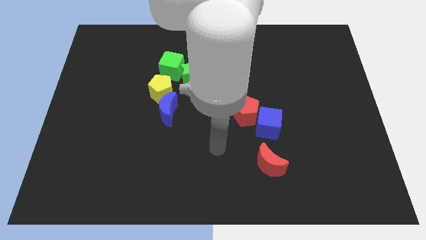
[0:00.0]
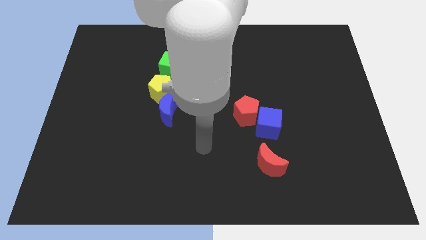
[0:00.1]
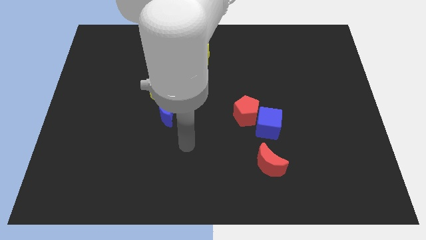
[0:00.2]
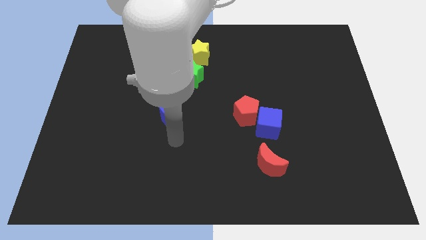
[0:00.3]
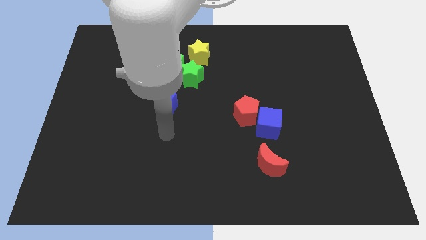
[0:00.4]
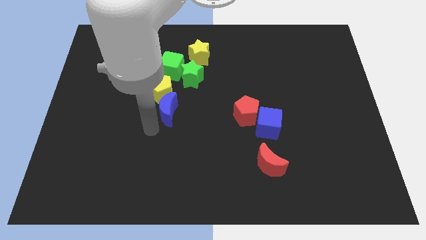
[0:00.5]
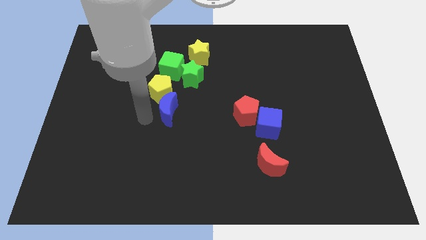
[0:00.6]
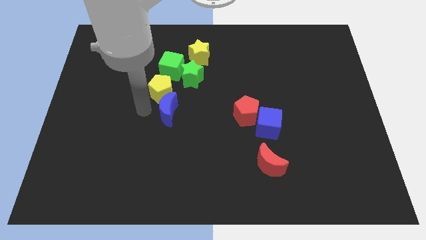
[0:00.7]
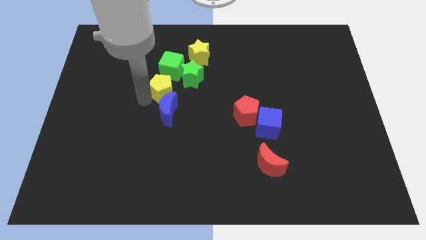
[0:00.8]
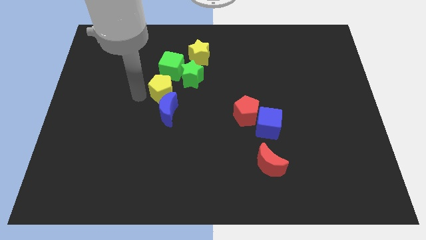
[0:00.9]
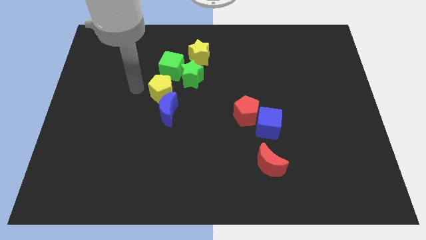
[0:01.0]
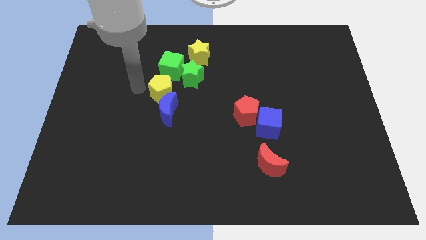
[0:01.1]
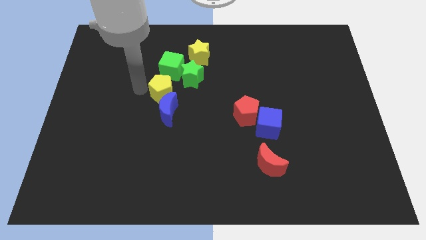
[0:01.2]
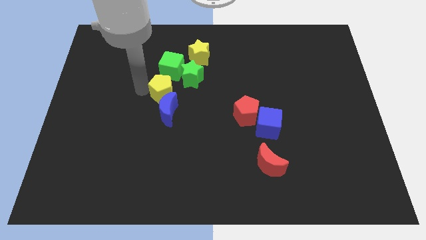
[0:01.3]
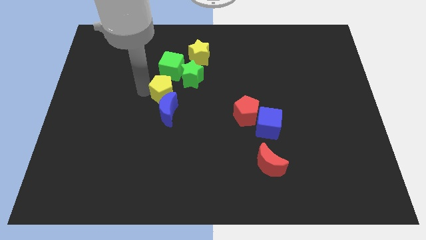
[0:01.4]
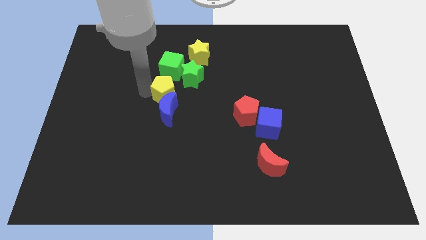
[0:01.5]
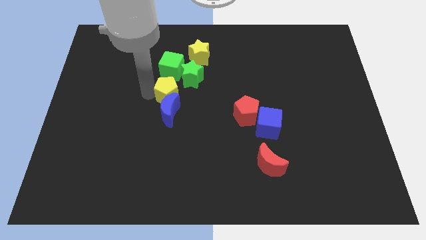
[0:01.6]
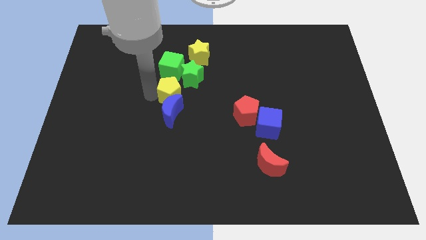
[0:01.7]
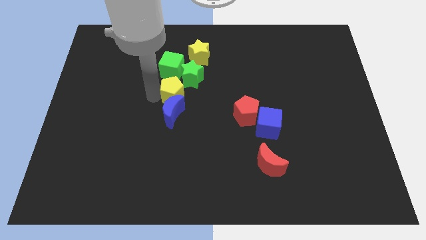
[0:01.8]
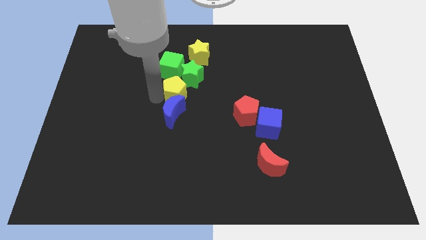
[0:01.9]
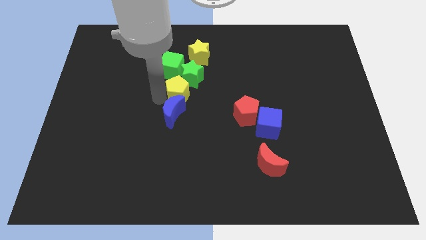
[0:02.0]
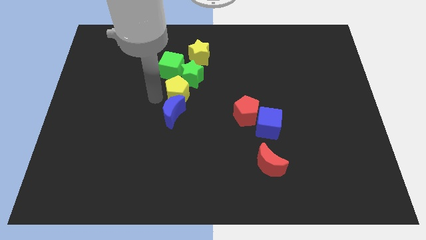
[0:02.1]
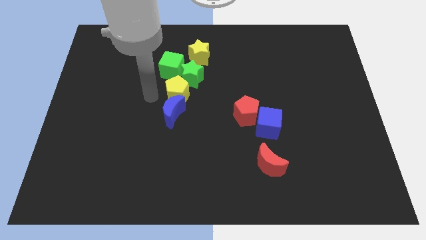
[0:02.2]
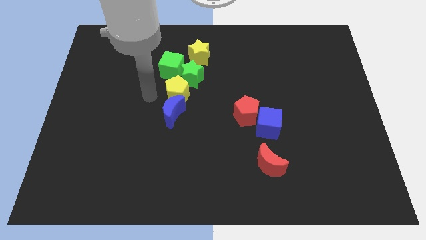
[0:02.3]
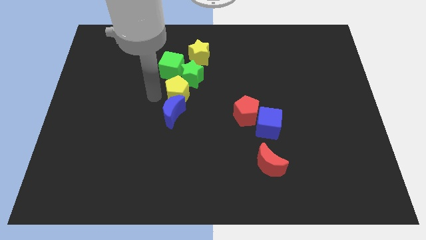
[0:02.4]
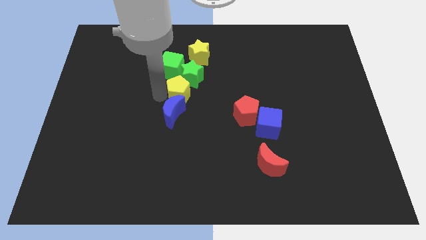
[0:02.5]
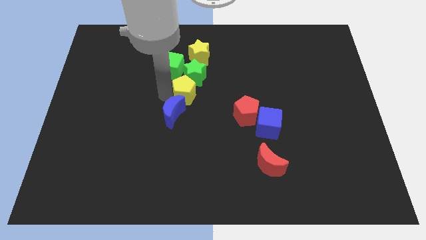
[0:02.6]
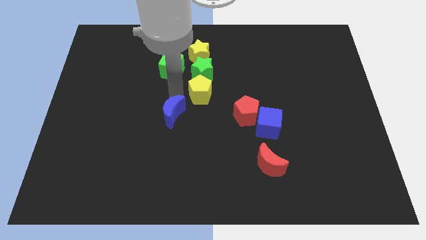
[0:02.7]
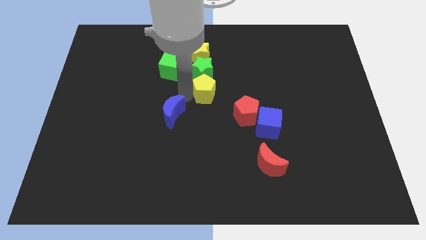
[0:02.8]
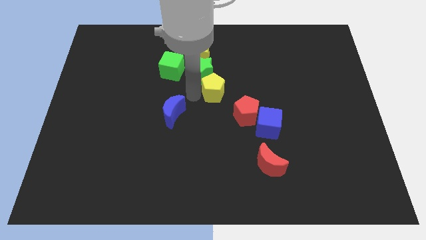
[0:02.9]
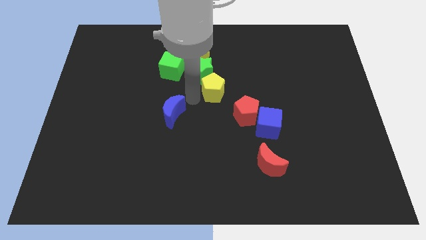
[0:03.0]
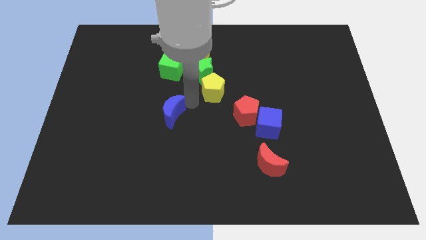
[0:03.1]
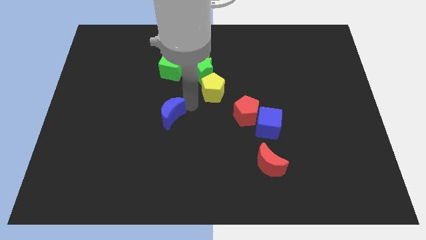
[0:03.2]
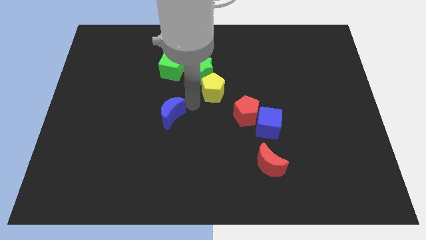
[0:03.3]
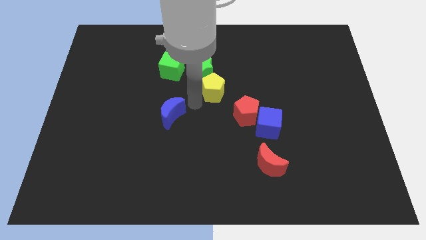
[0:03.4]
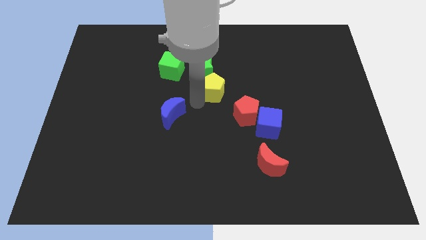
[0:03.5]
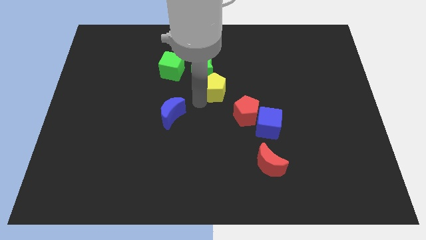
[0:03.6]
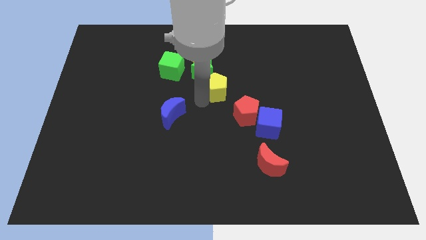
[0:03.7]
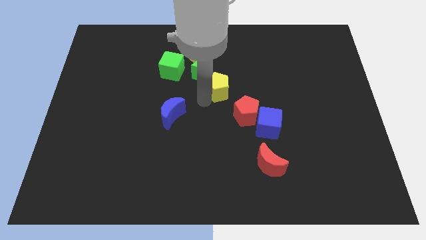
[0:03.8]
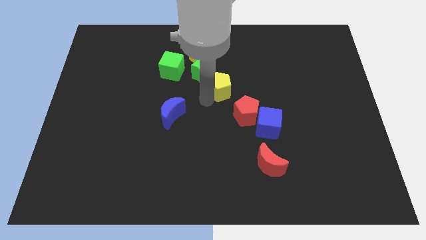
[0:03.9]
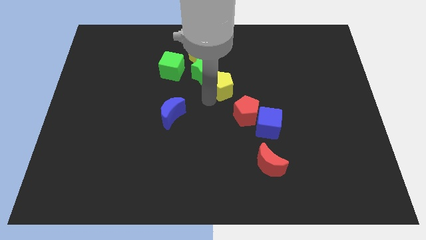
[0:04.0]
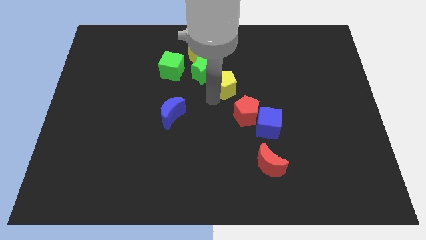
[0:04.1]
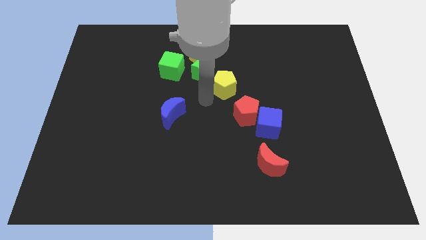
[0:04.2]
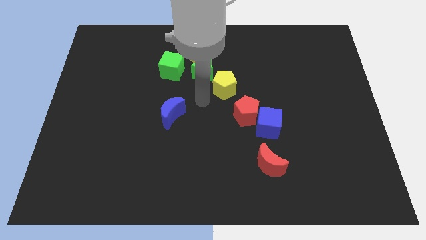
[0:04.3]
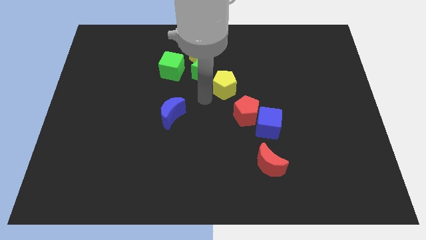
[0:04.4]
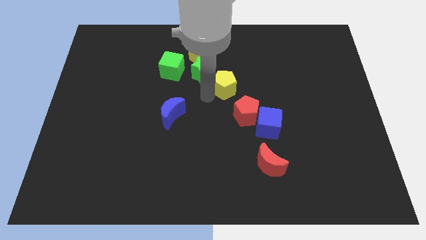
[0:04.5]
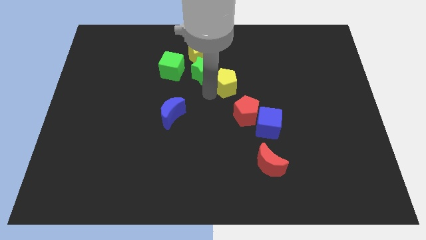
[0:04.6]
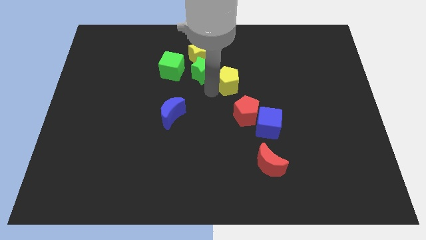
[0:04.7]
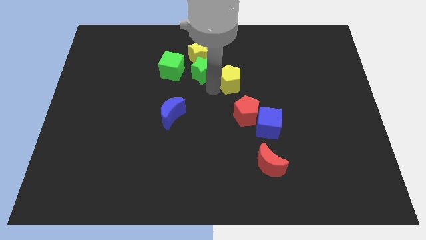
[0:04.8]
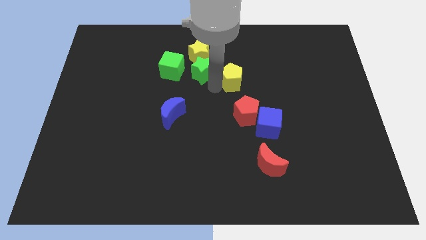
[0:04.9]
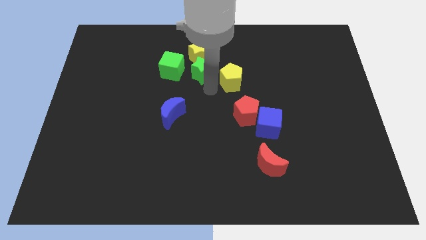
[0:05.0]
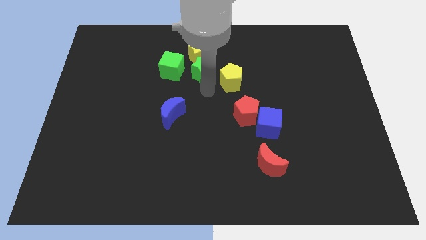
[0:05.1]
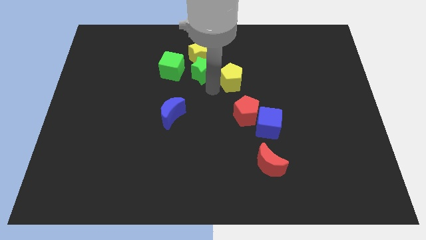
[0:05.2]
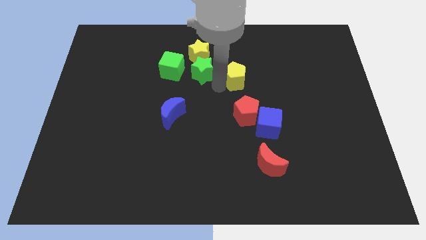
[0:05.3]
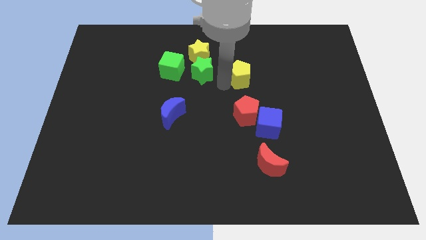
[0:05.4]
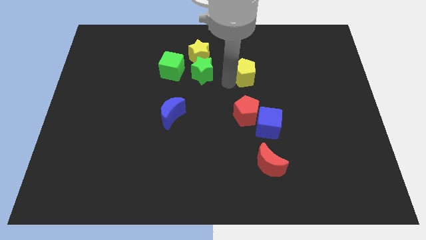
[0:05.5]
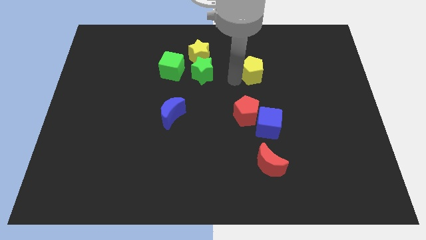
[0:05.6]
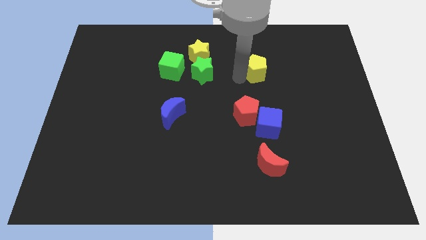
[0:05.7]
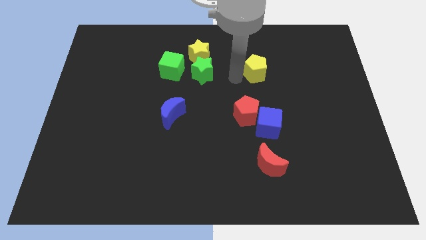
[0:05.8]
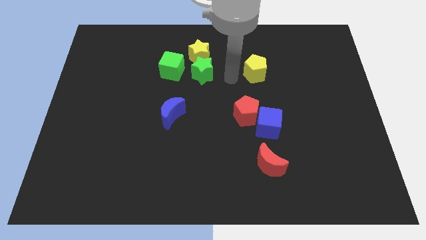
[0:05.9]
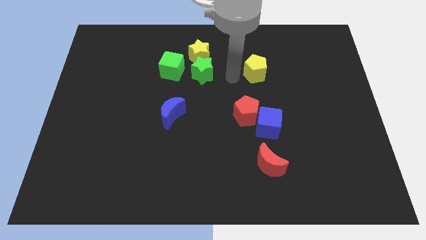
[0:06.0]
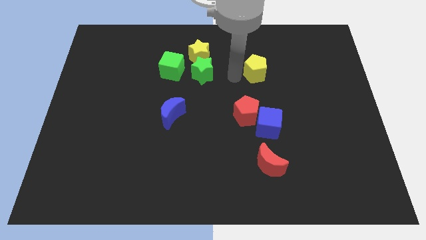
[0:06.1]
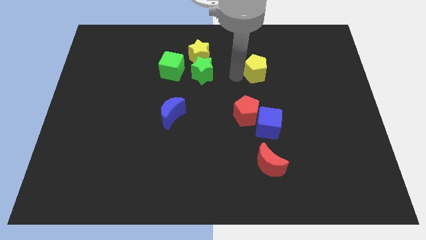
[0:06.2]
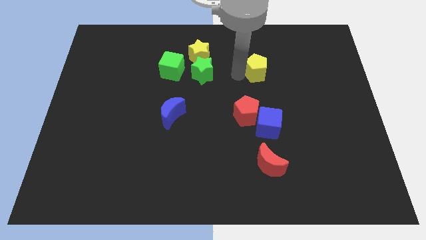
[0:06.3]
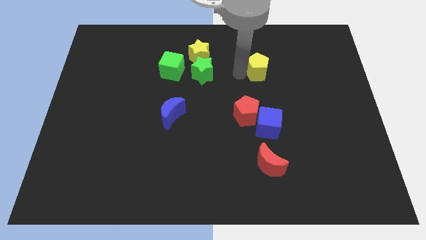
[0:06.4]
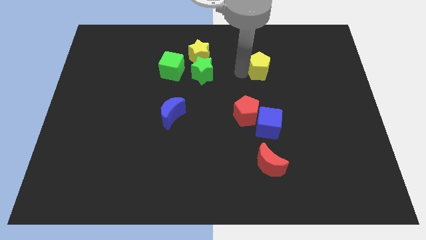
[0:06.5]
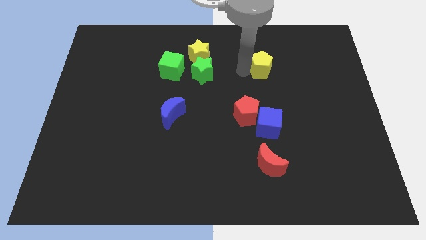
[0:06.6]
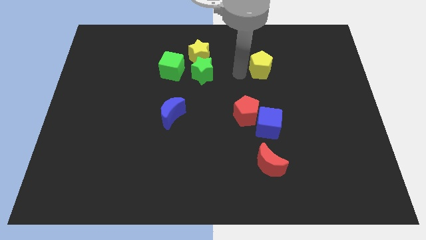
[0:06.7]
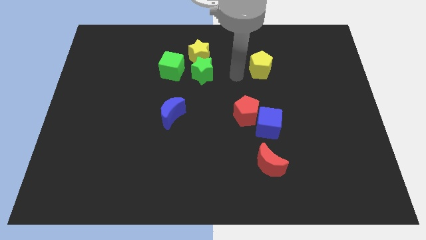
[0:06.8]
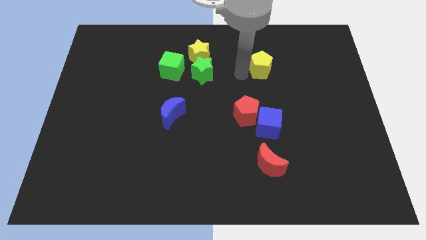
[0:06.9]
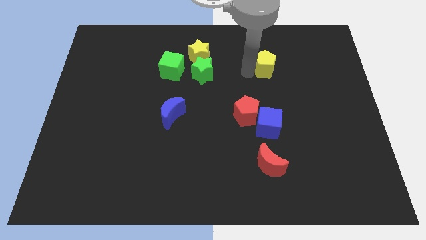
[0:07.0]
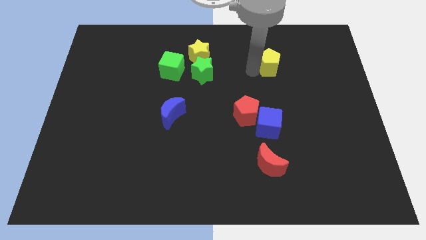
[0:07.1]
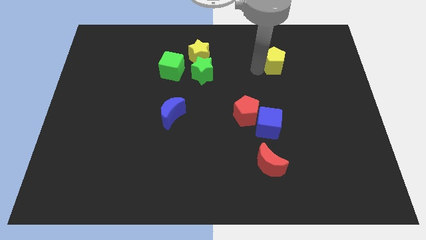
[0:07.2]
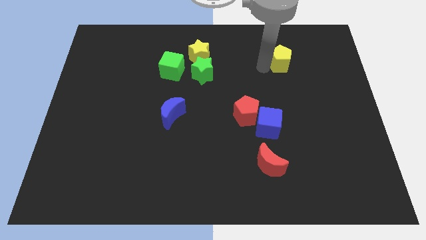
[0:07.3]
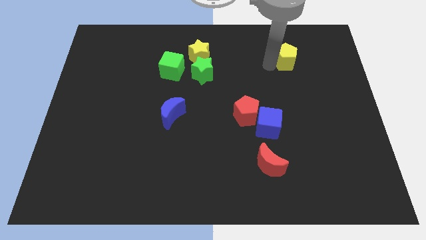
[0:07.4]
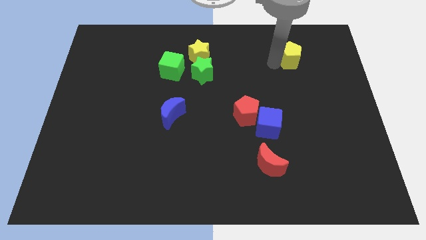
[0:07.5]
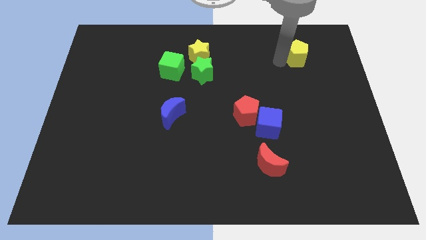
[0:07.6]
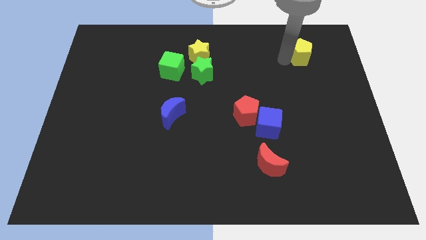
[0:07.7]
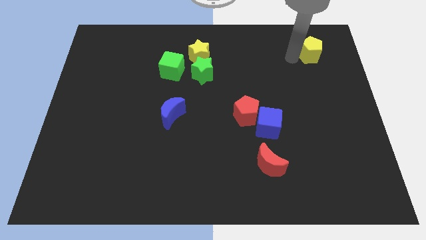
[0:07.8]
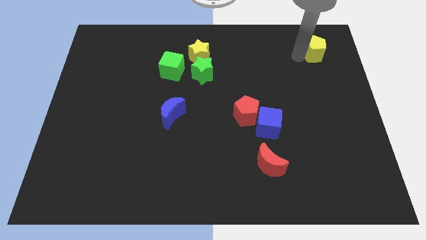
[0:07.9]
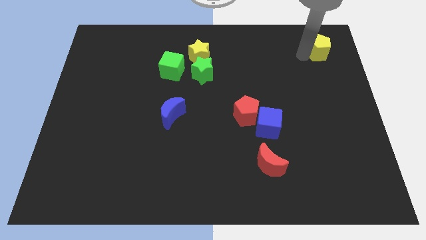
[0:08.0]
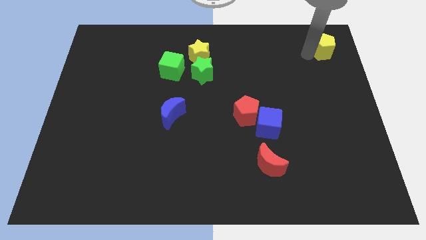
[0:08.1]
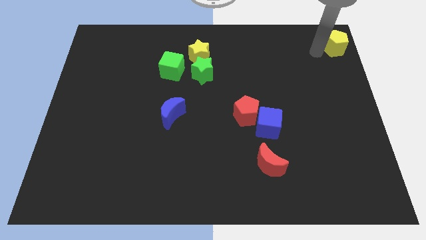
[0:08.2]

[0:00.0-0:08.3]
push the yellow pentagon to the top right corner
